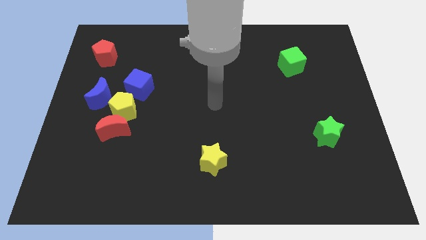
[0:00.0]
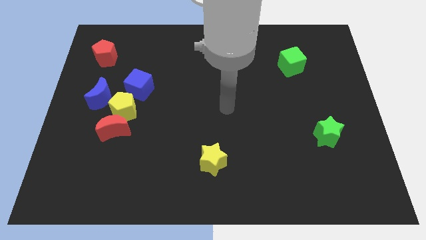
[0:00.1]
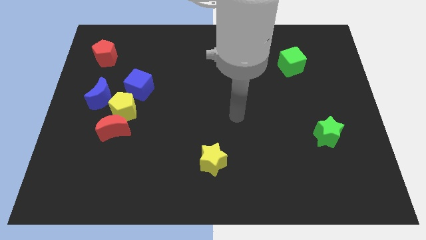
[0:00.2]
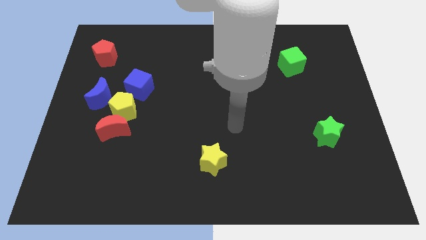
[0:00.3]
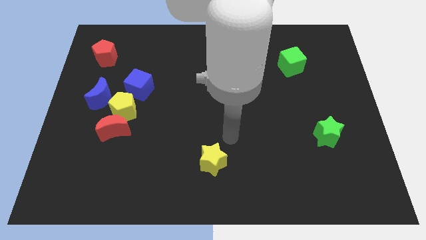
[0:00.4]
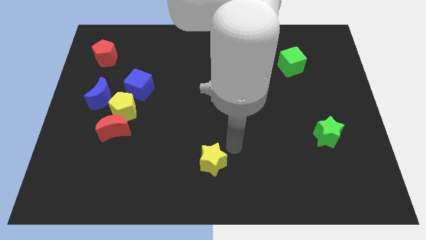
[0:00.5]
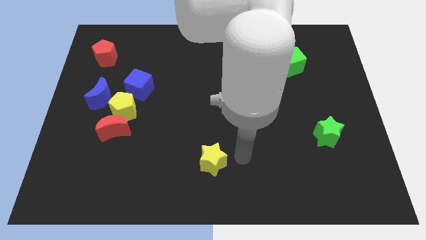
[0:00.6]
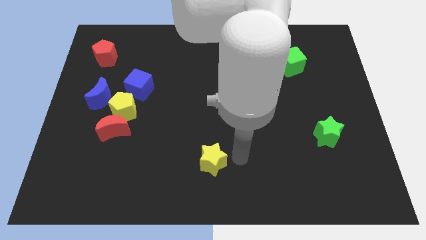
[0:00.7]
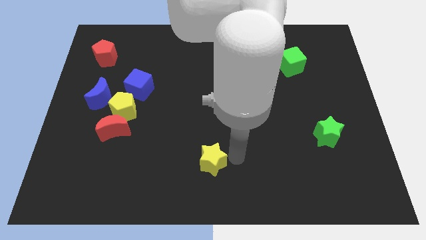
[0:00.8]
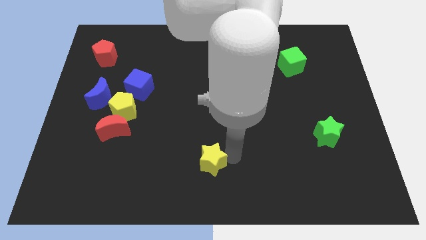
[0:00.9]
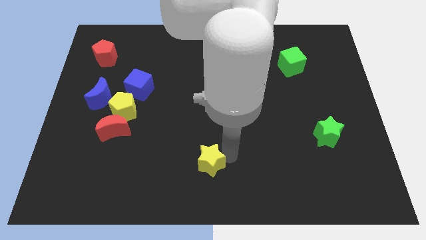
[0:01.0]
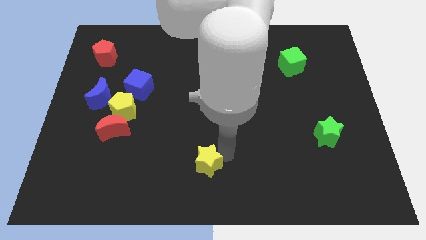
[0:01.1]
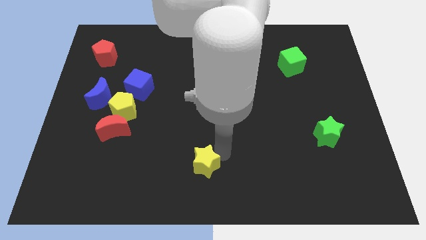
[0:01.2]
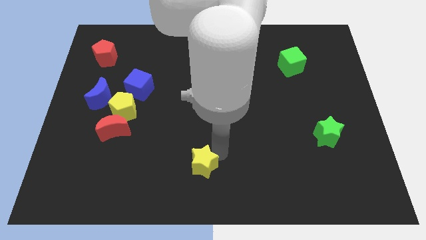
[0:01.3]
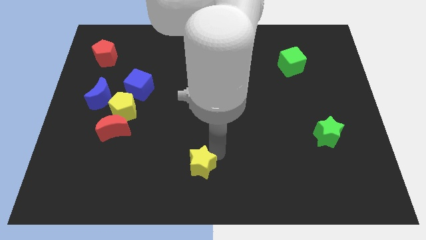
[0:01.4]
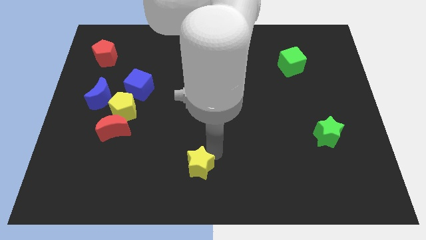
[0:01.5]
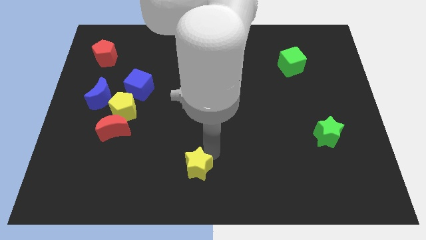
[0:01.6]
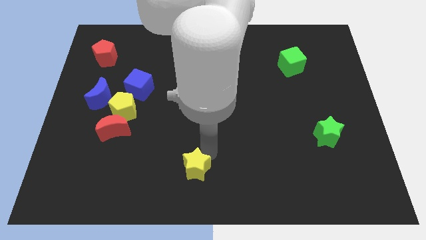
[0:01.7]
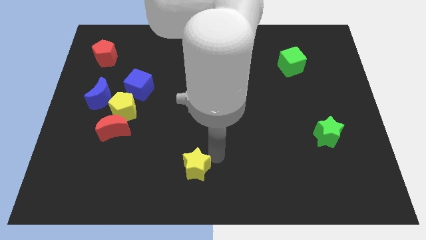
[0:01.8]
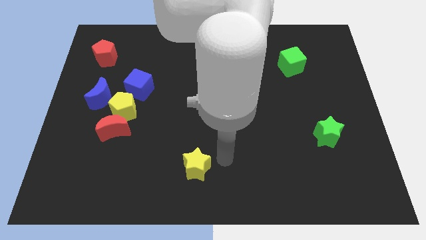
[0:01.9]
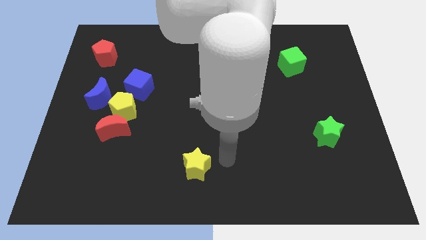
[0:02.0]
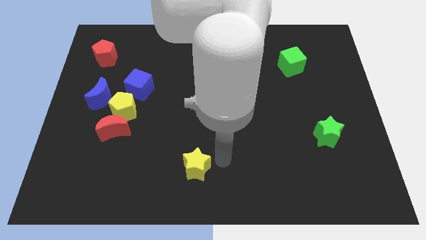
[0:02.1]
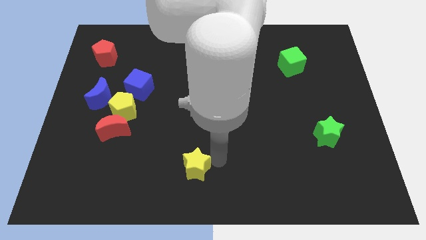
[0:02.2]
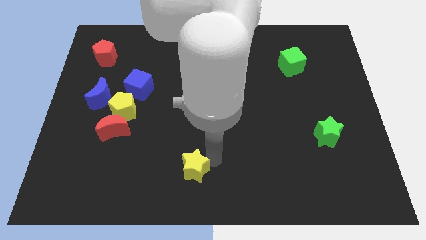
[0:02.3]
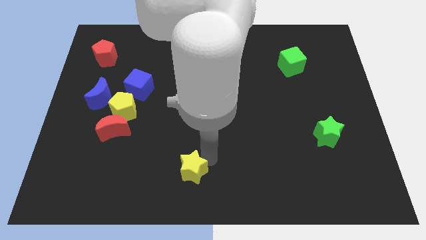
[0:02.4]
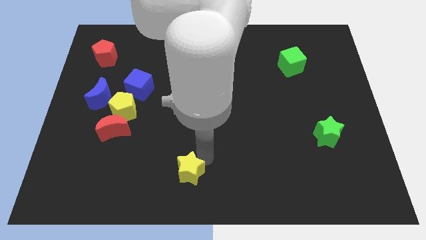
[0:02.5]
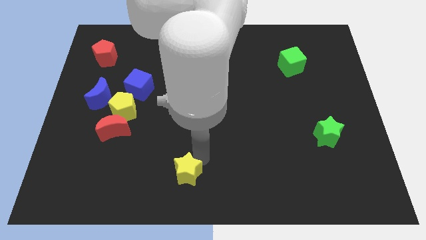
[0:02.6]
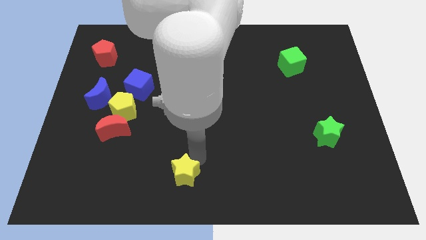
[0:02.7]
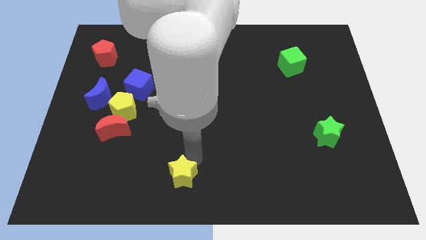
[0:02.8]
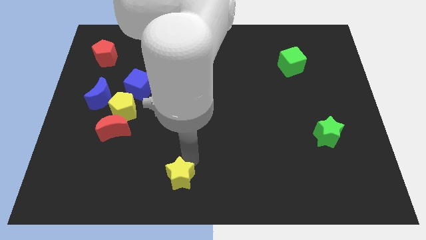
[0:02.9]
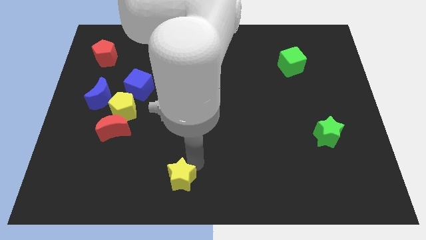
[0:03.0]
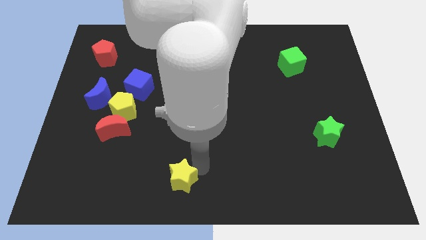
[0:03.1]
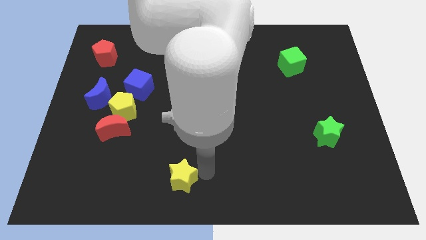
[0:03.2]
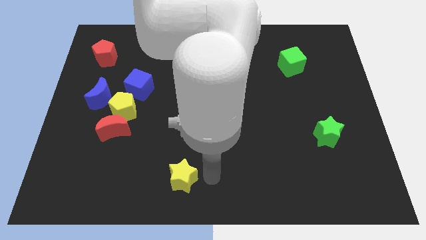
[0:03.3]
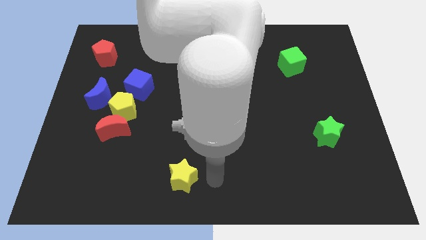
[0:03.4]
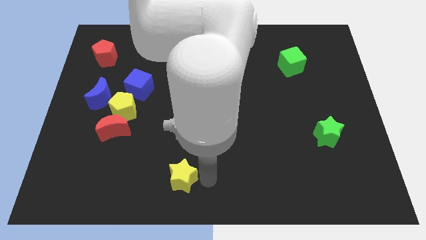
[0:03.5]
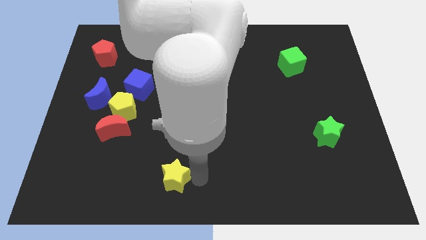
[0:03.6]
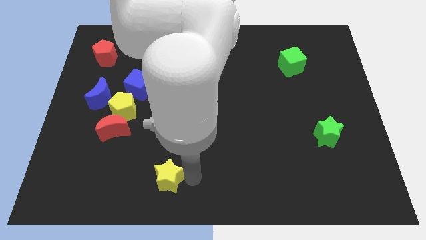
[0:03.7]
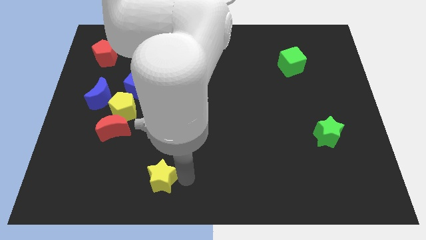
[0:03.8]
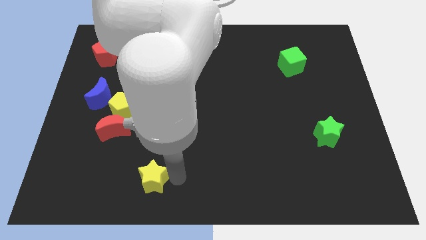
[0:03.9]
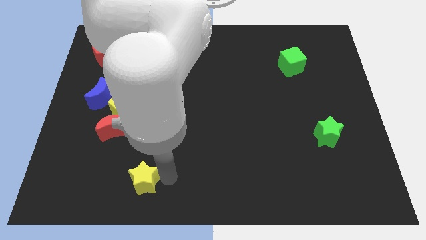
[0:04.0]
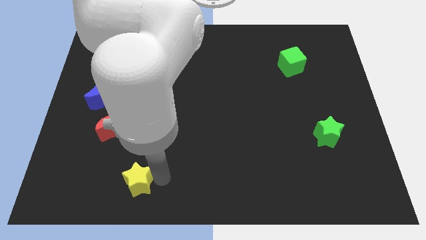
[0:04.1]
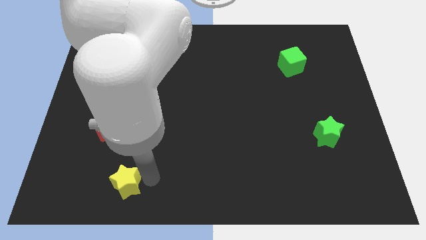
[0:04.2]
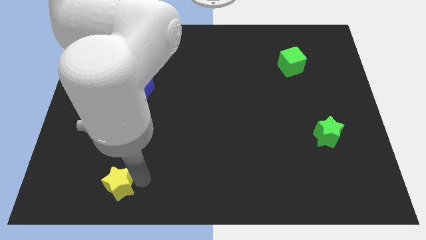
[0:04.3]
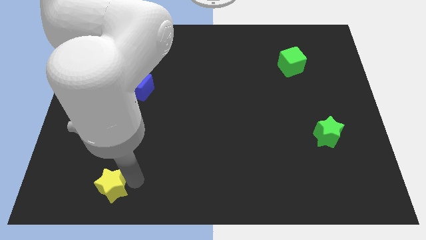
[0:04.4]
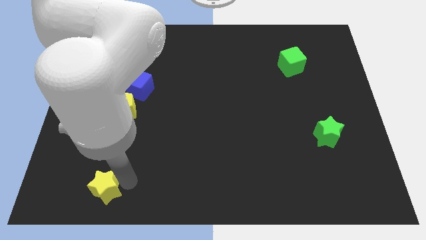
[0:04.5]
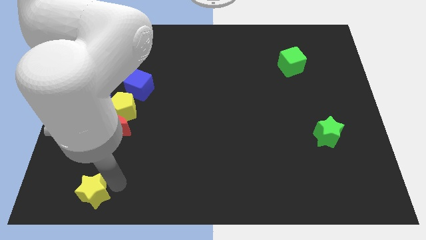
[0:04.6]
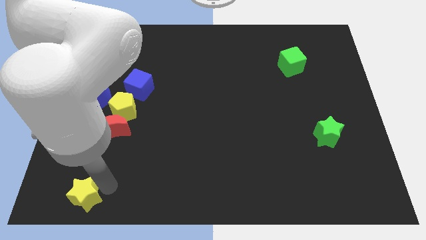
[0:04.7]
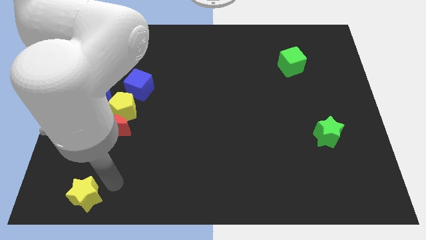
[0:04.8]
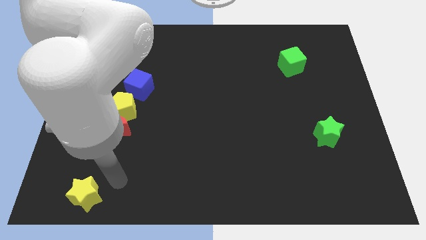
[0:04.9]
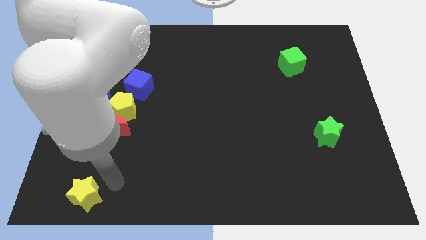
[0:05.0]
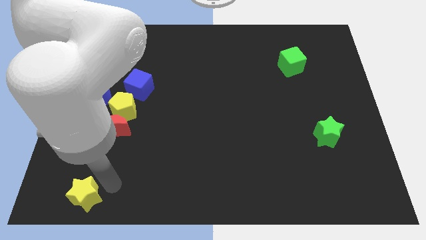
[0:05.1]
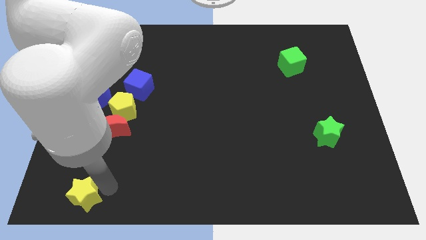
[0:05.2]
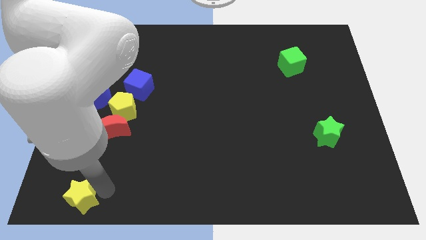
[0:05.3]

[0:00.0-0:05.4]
move the yellow star to the bottom left of the board

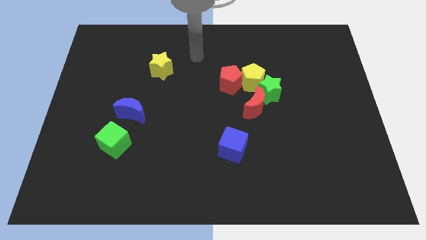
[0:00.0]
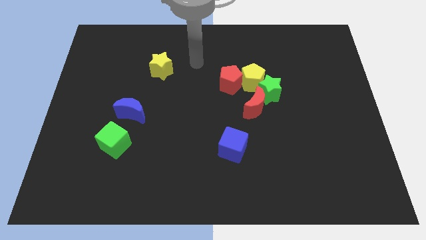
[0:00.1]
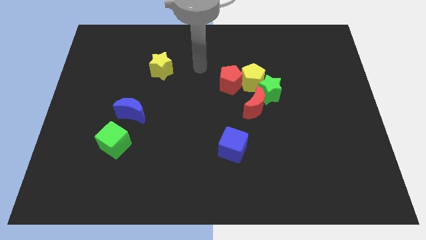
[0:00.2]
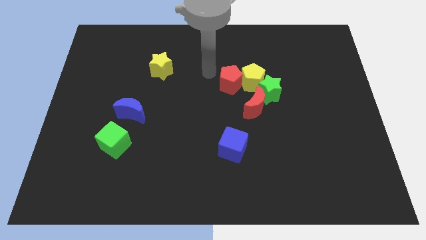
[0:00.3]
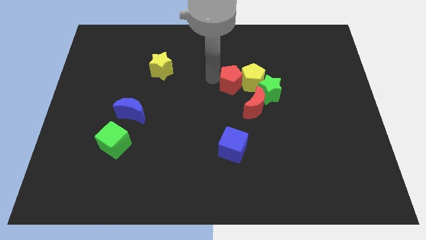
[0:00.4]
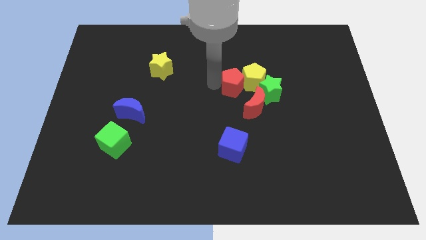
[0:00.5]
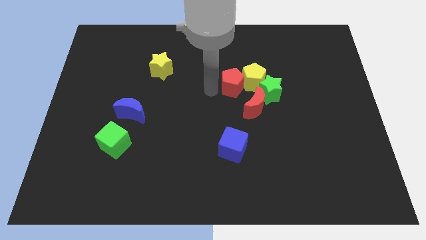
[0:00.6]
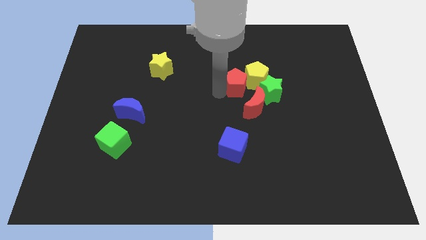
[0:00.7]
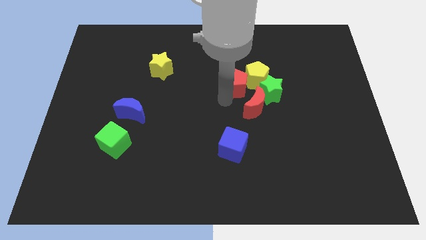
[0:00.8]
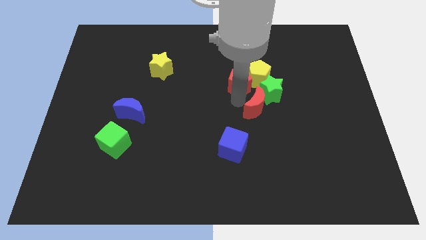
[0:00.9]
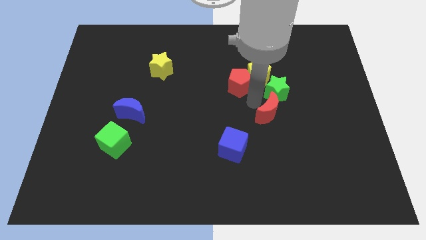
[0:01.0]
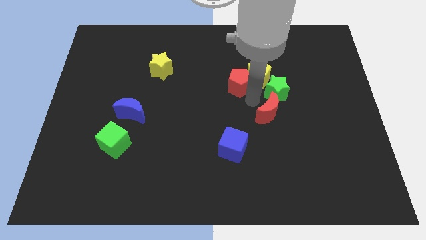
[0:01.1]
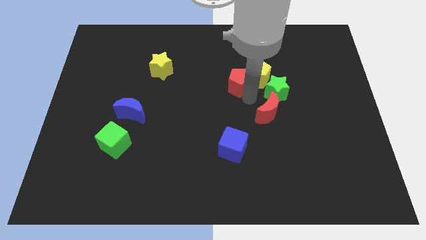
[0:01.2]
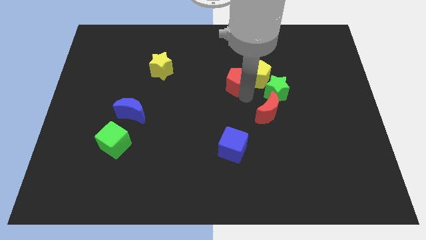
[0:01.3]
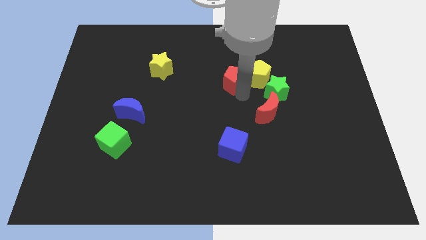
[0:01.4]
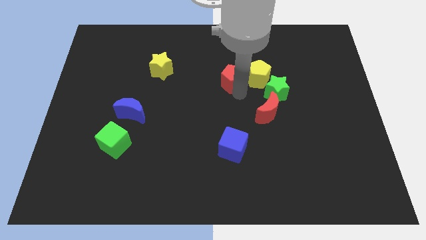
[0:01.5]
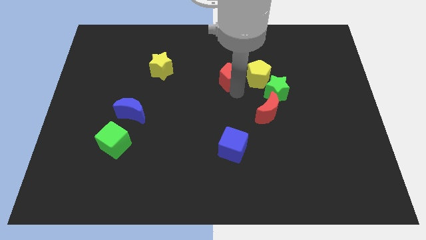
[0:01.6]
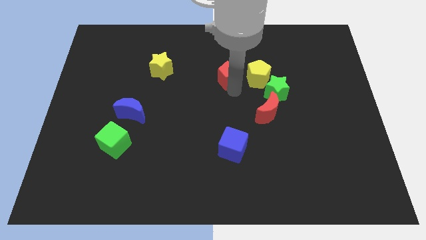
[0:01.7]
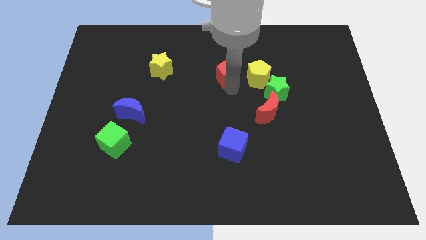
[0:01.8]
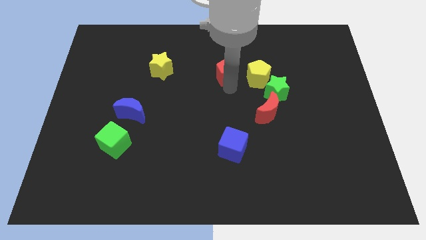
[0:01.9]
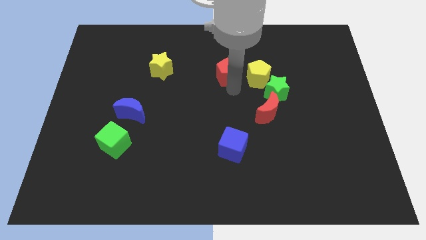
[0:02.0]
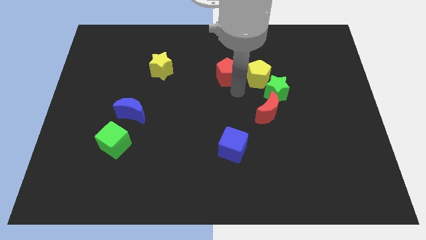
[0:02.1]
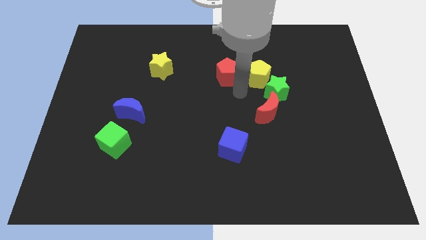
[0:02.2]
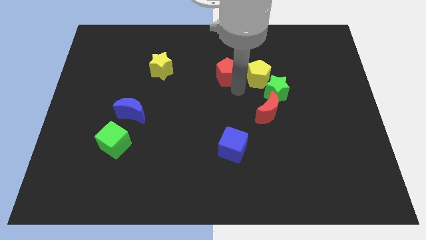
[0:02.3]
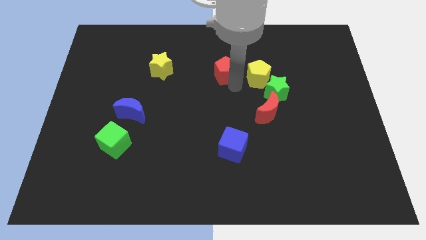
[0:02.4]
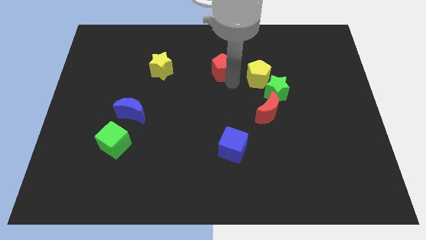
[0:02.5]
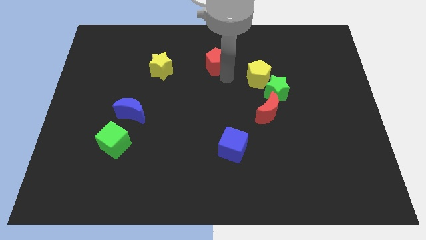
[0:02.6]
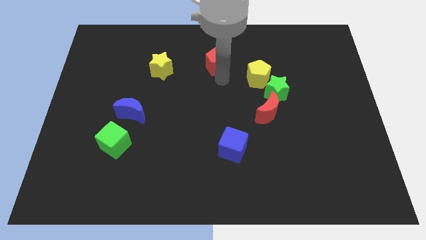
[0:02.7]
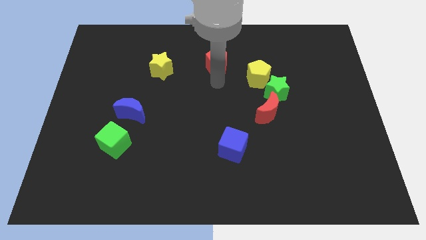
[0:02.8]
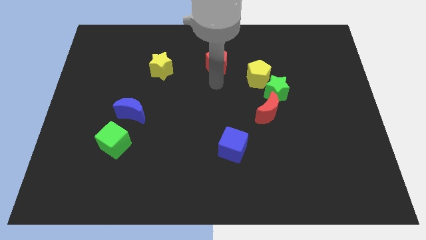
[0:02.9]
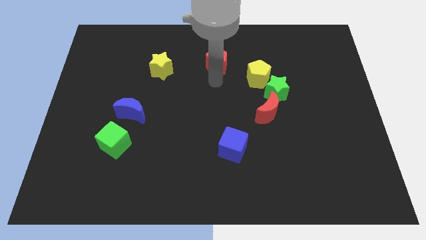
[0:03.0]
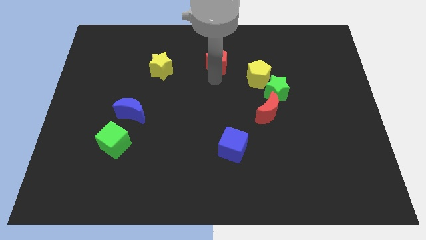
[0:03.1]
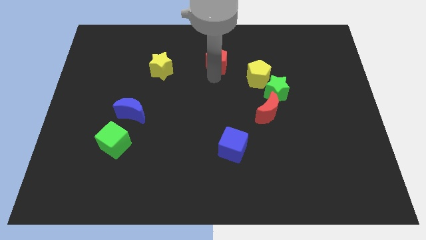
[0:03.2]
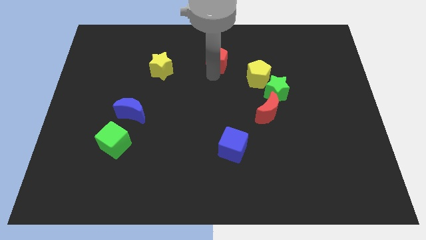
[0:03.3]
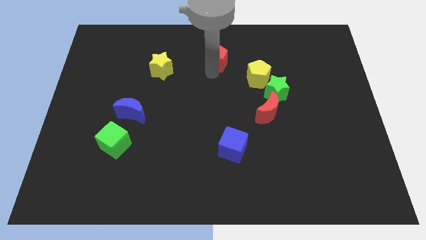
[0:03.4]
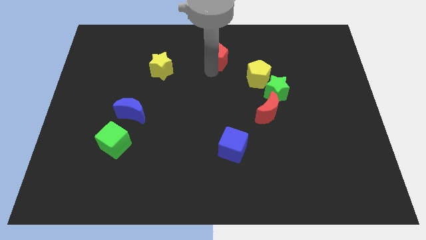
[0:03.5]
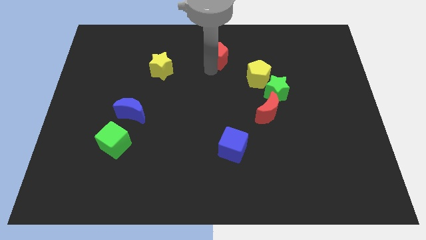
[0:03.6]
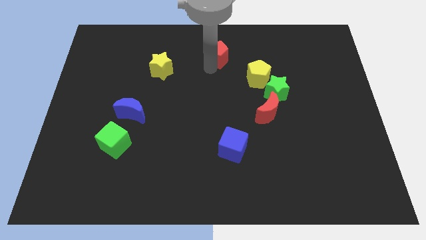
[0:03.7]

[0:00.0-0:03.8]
slide the red pentagon to the top side
